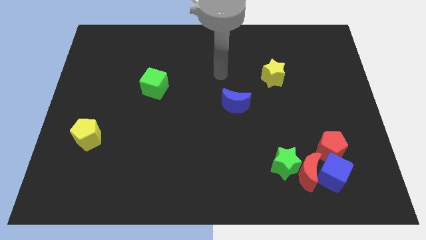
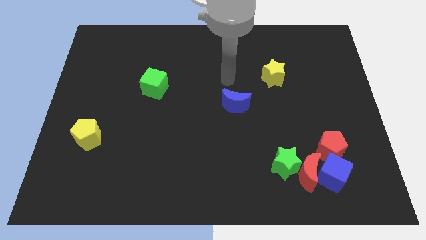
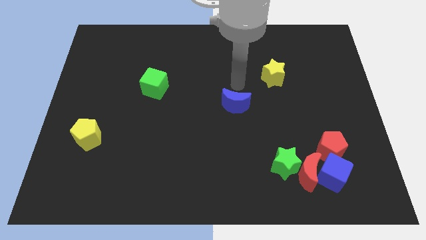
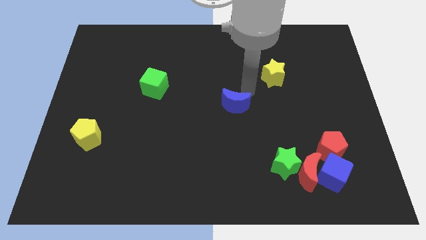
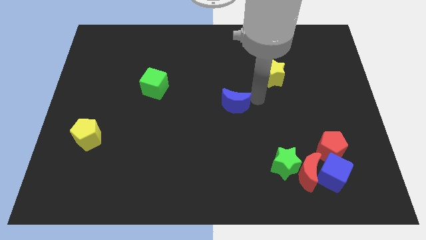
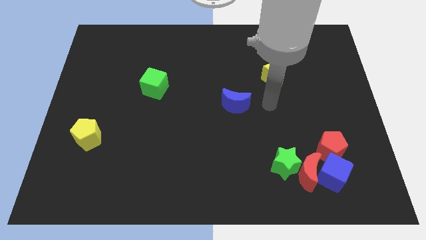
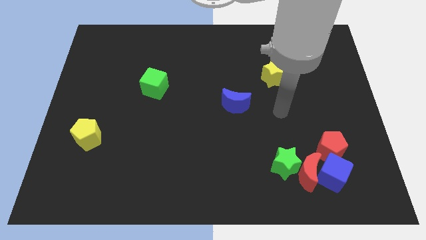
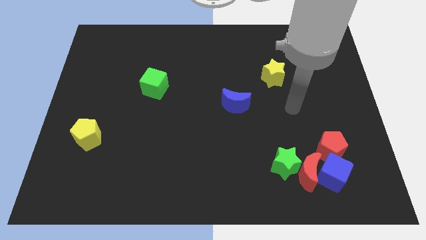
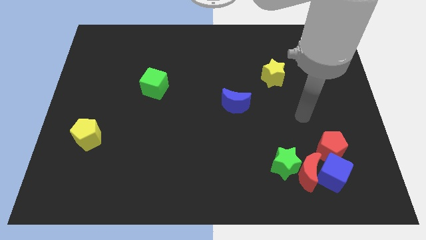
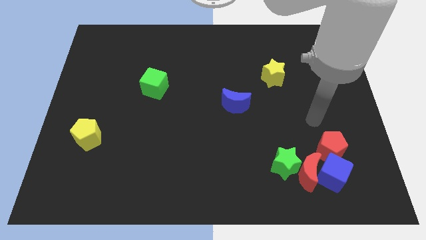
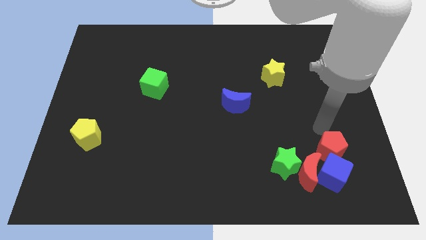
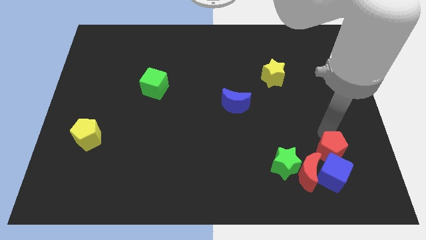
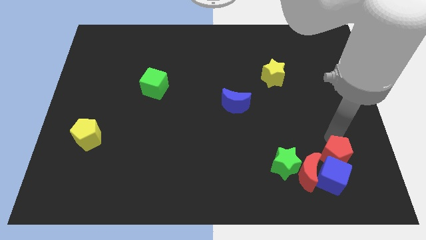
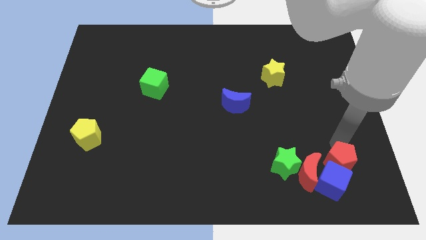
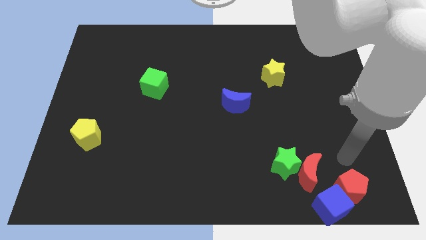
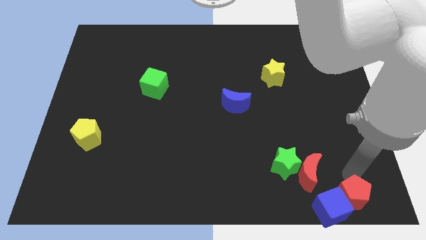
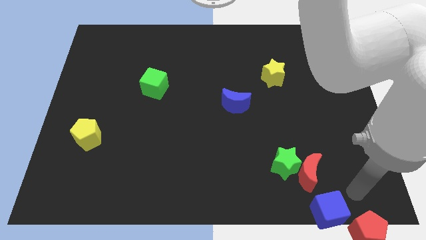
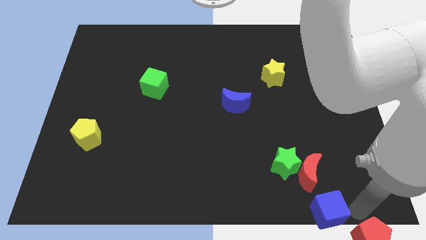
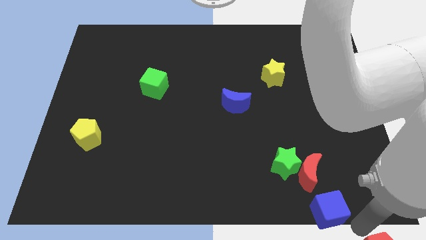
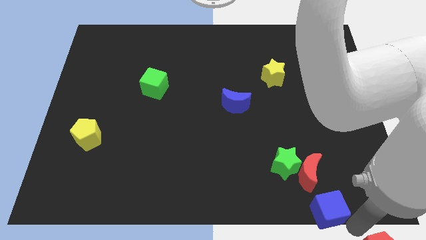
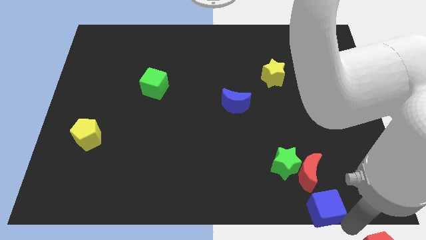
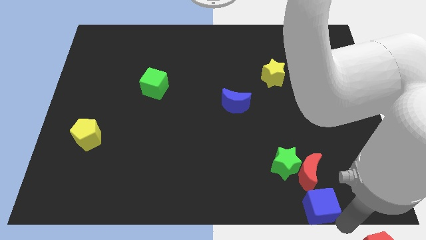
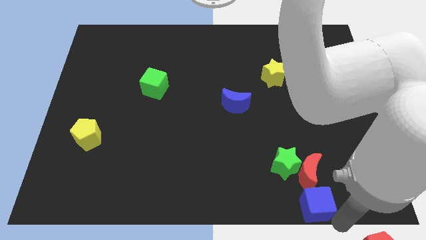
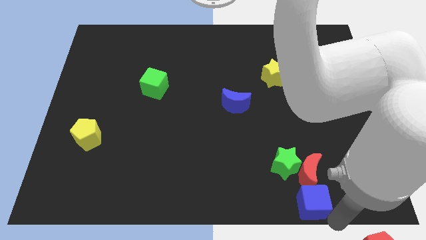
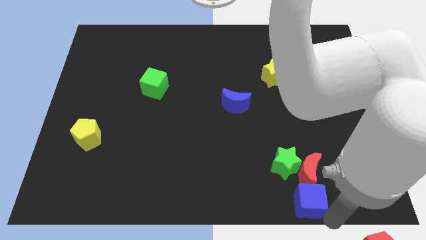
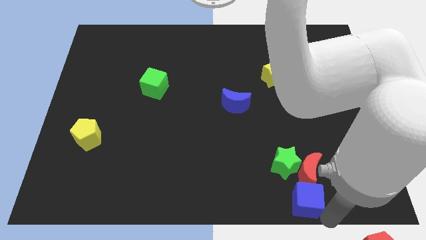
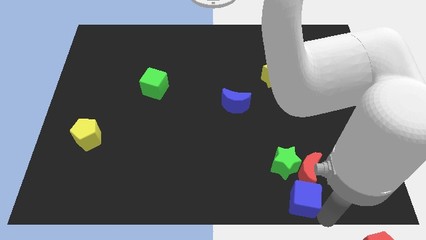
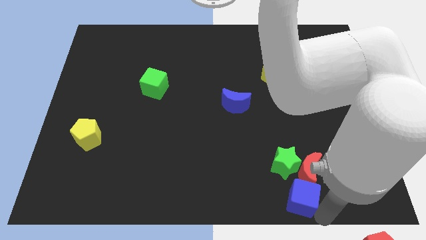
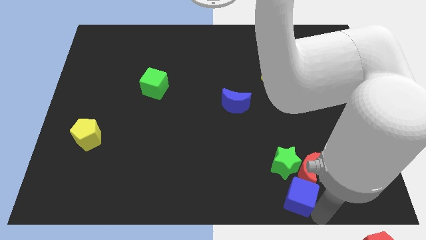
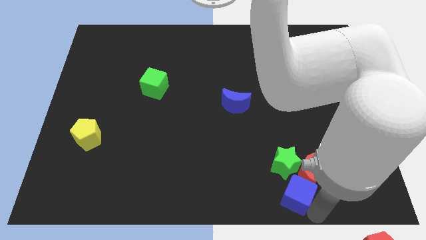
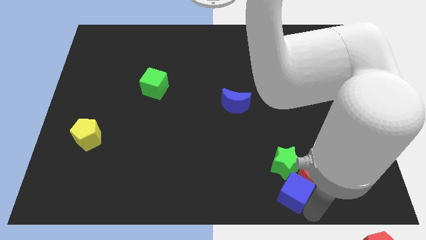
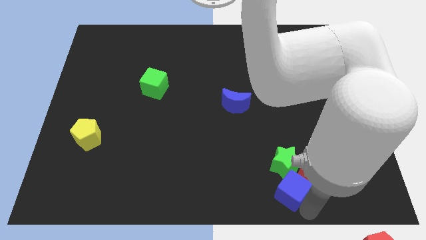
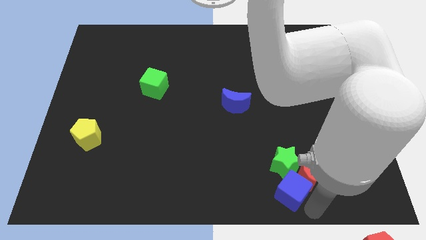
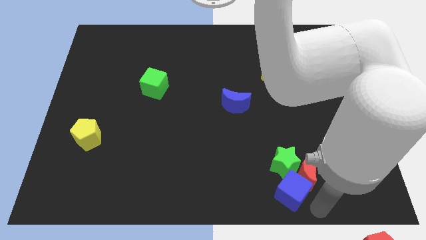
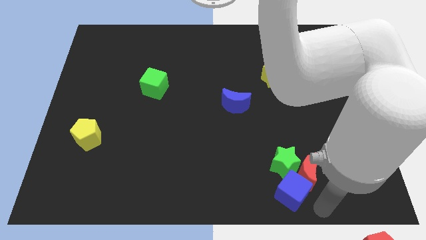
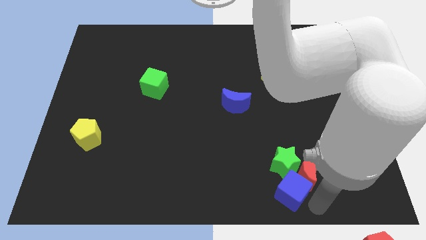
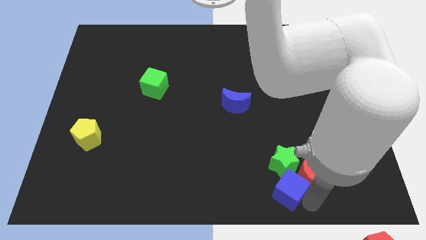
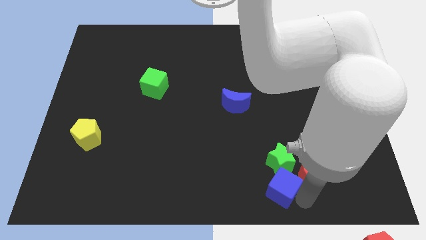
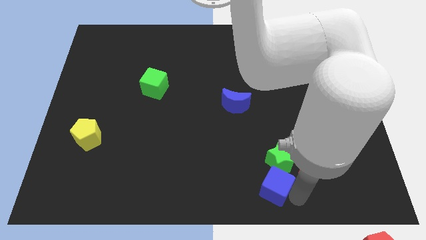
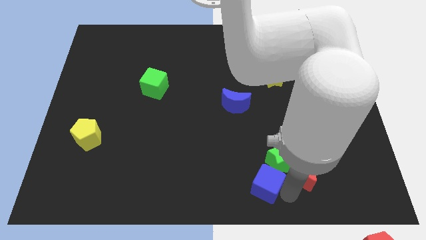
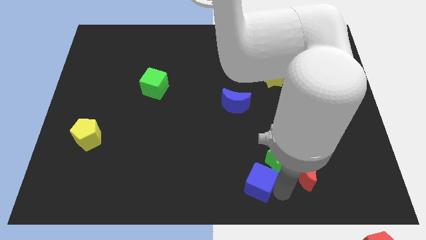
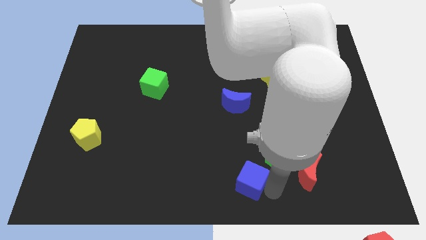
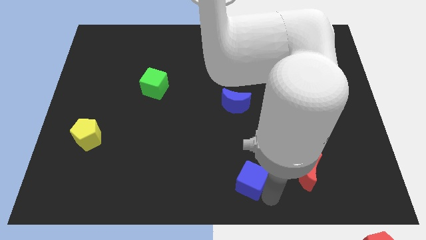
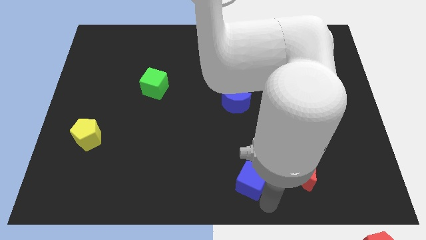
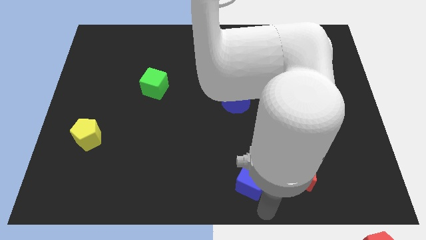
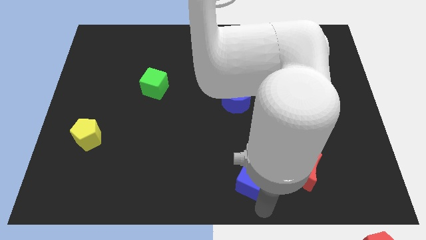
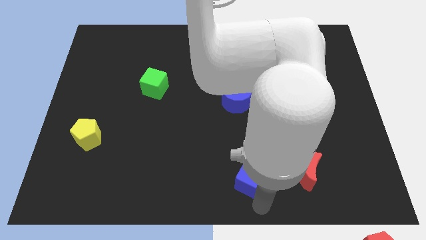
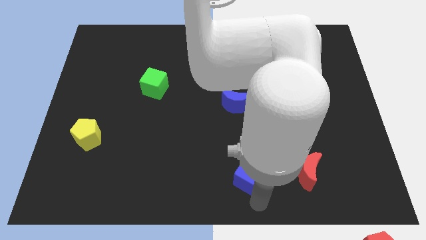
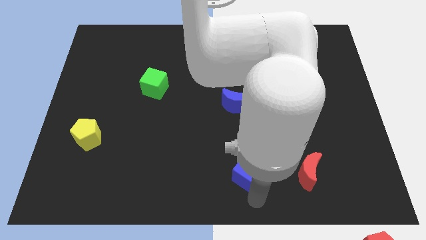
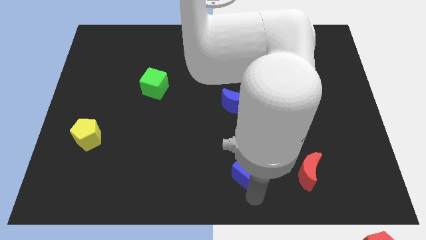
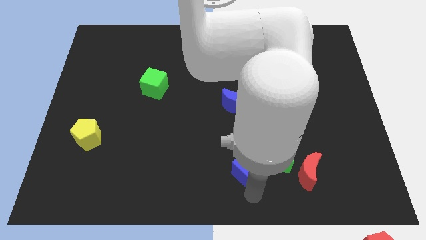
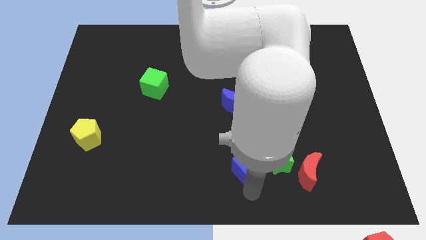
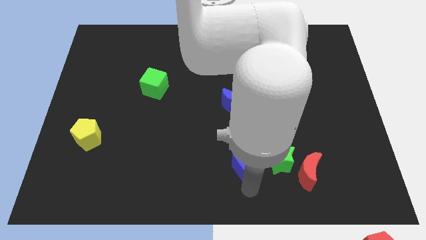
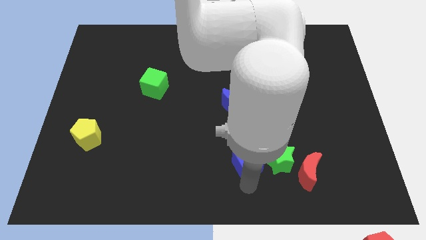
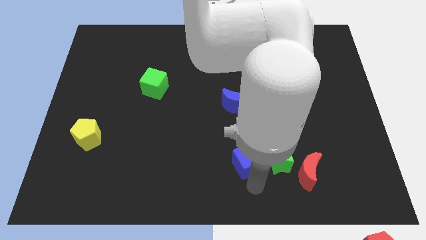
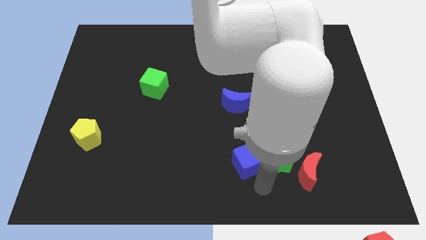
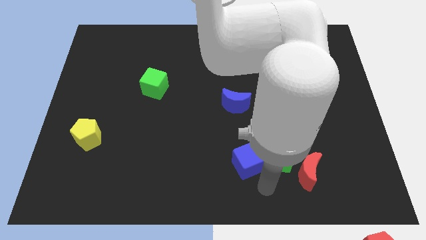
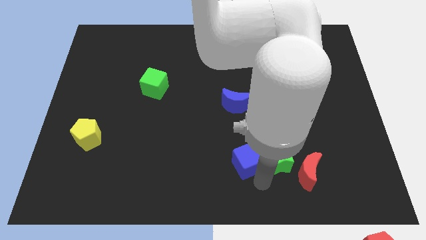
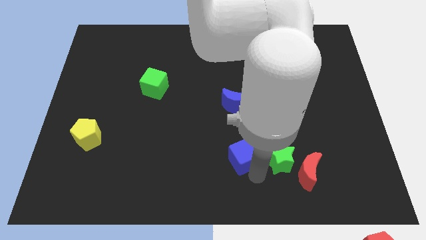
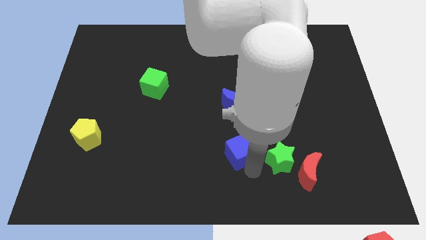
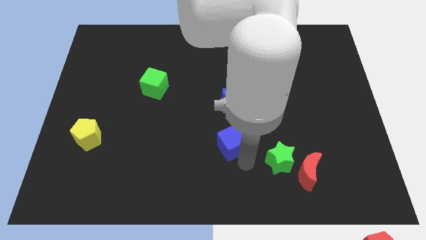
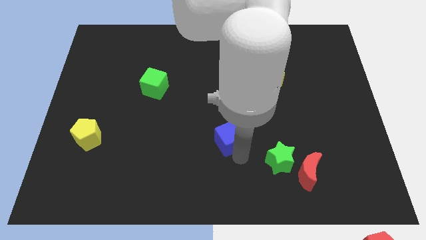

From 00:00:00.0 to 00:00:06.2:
push the blue cube to the center

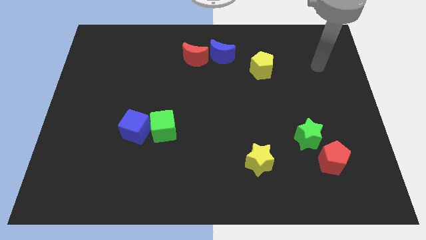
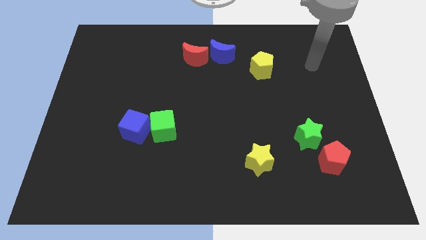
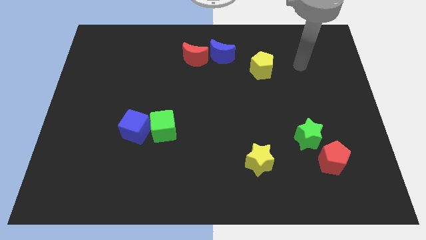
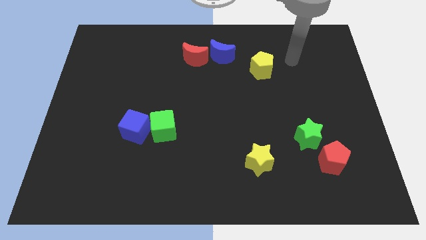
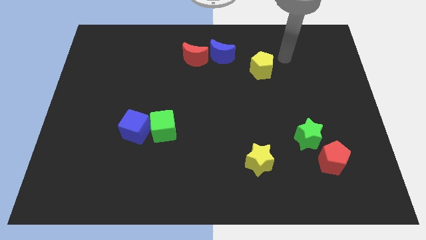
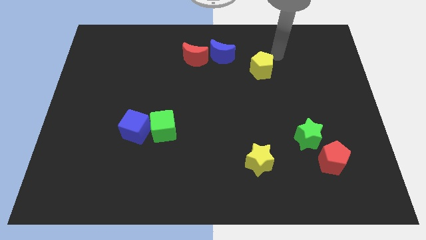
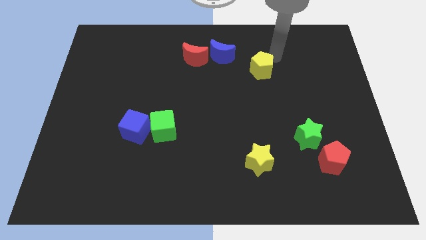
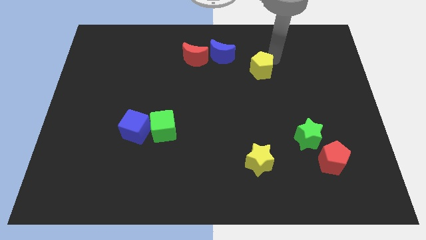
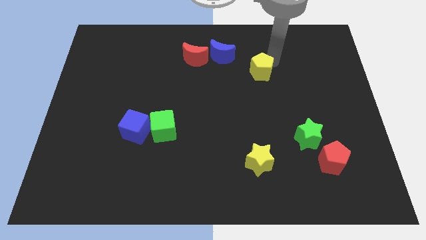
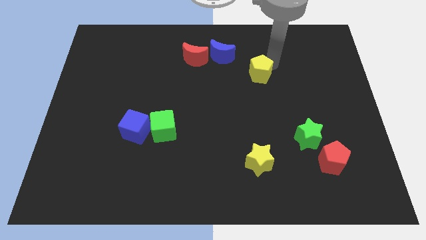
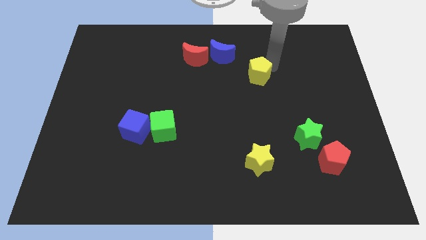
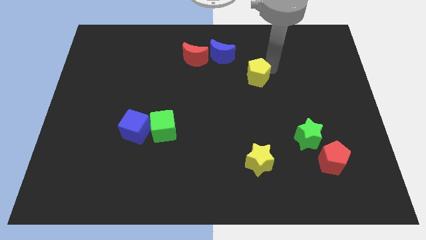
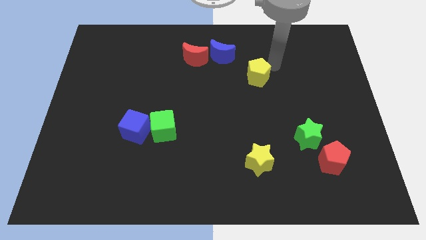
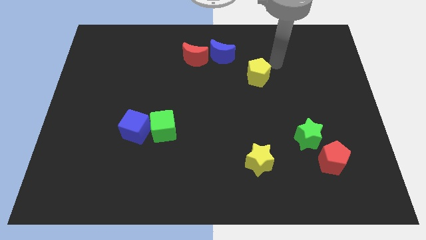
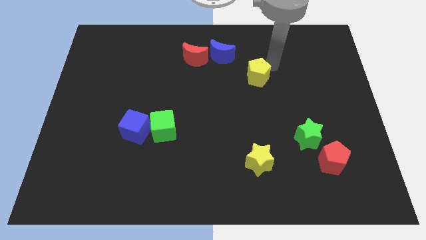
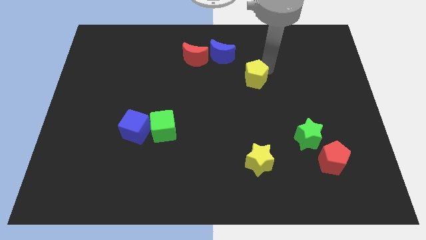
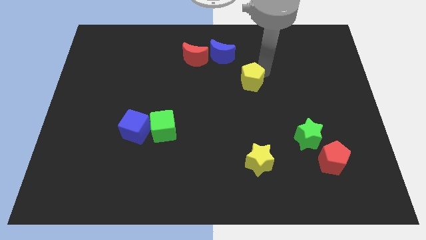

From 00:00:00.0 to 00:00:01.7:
slide the yellow pentagon to the middle of the board
